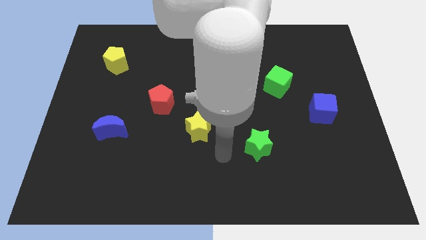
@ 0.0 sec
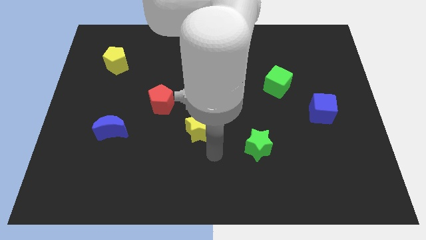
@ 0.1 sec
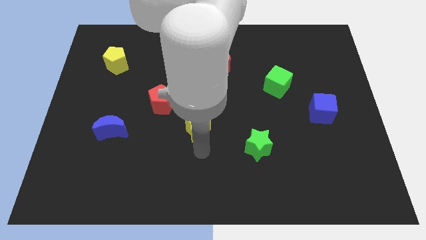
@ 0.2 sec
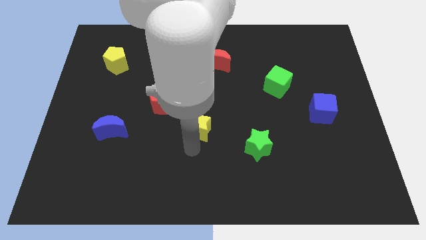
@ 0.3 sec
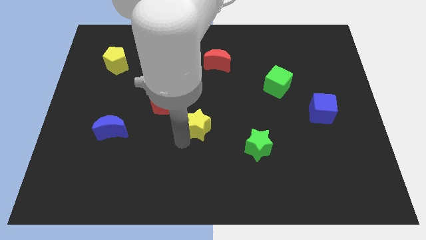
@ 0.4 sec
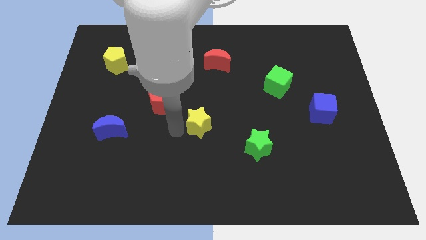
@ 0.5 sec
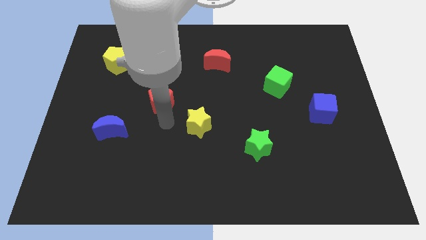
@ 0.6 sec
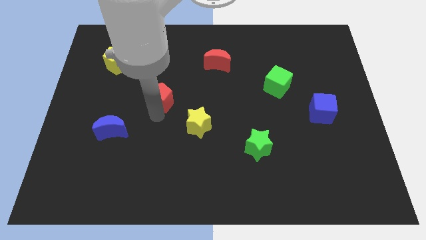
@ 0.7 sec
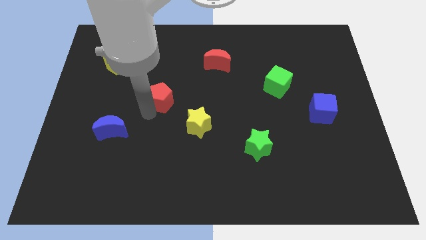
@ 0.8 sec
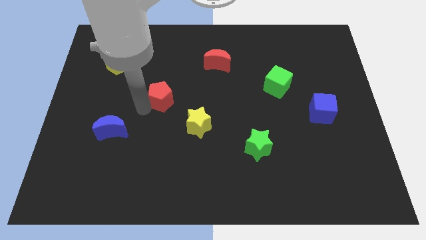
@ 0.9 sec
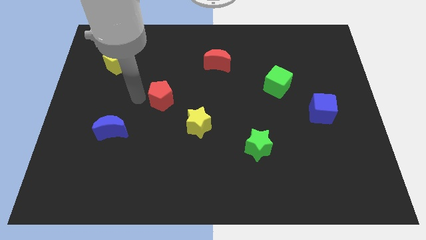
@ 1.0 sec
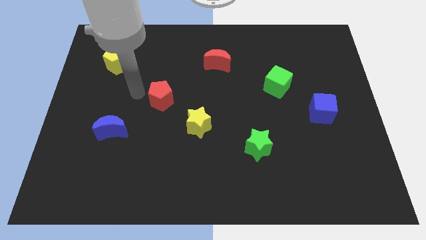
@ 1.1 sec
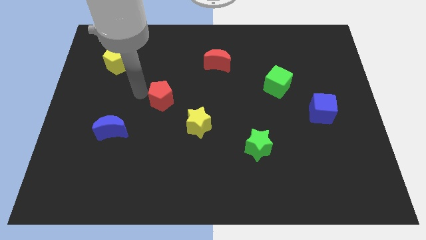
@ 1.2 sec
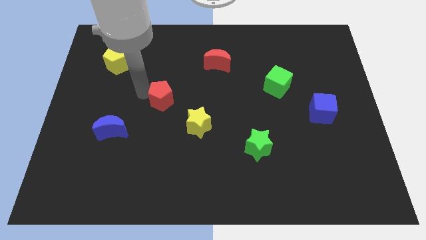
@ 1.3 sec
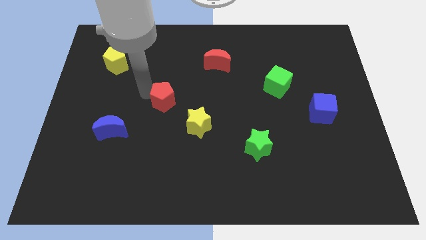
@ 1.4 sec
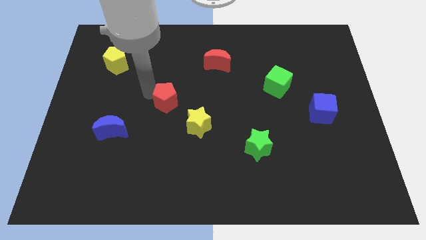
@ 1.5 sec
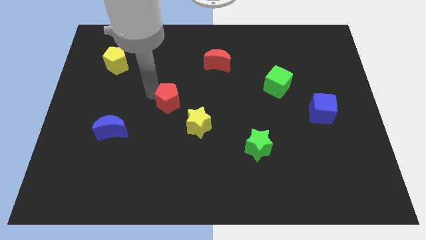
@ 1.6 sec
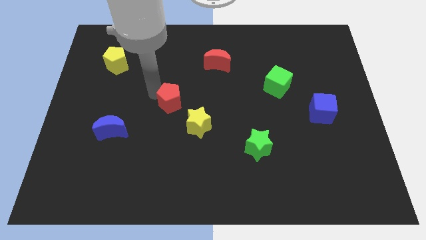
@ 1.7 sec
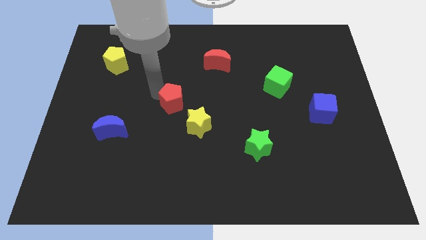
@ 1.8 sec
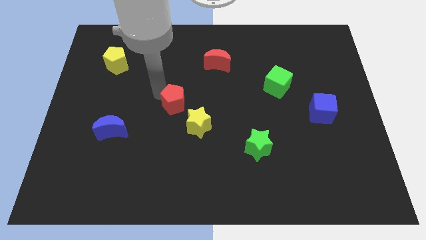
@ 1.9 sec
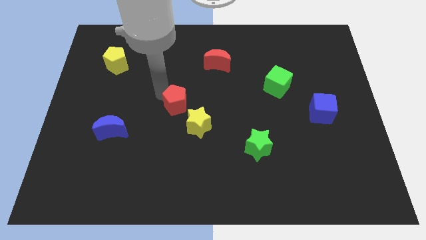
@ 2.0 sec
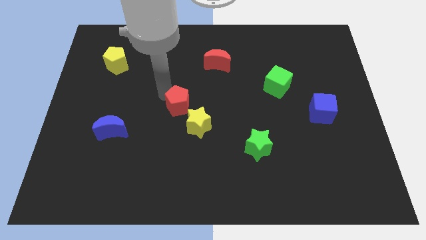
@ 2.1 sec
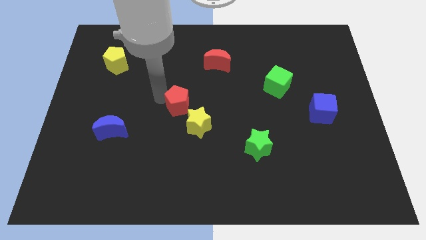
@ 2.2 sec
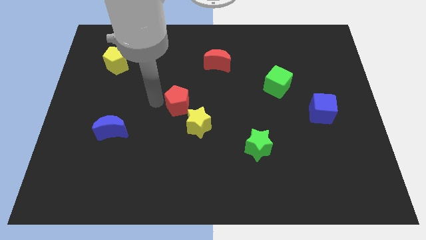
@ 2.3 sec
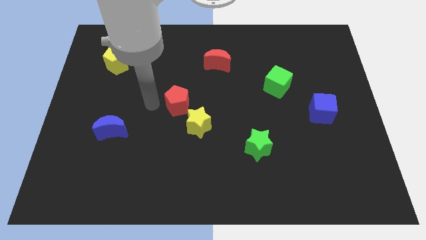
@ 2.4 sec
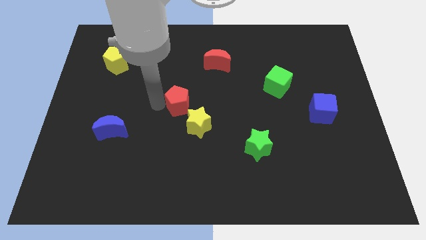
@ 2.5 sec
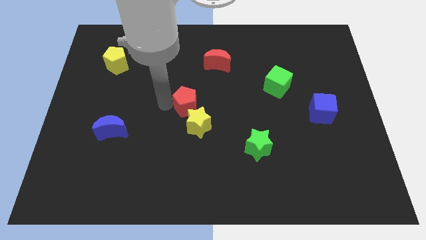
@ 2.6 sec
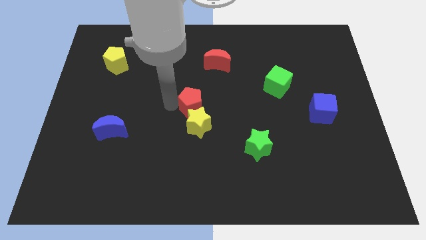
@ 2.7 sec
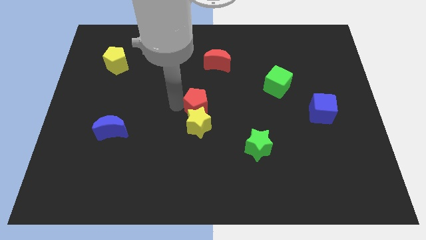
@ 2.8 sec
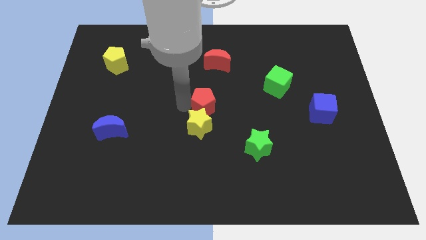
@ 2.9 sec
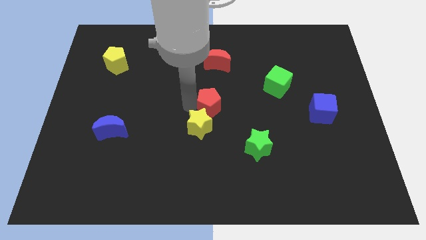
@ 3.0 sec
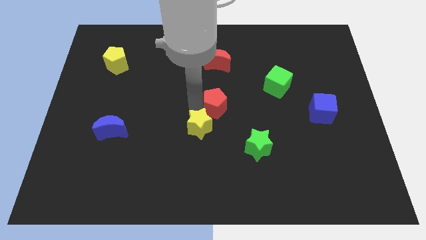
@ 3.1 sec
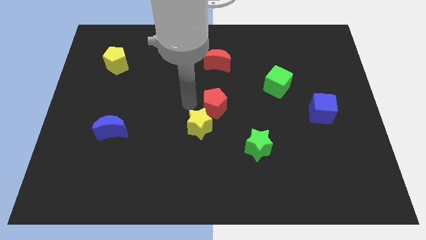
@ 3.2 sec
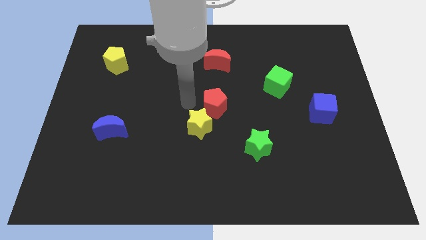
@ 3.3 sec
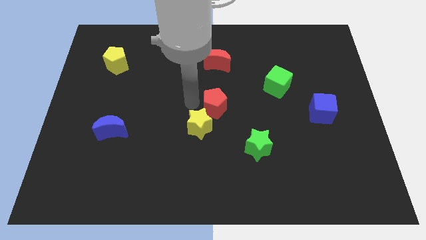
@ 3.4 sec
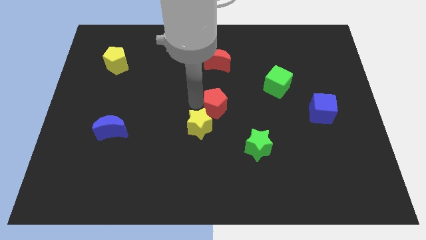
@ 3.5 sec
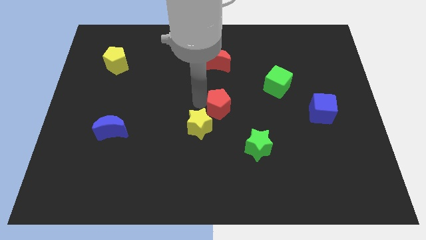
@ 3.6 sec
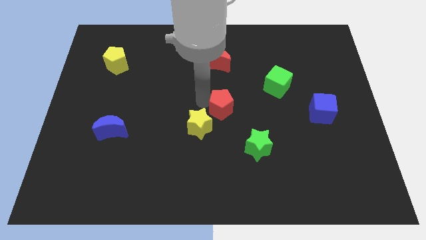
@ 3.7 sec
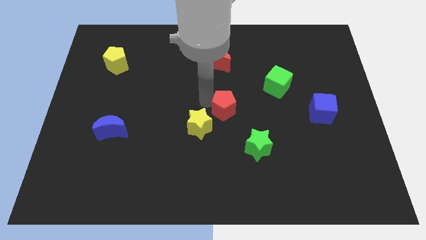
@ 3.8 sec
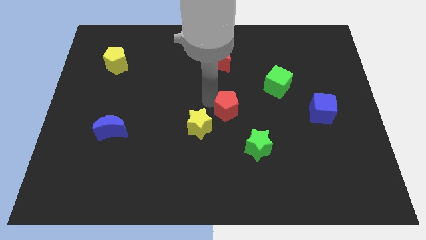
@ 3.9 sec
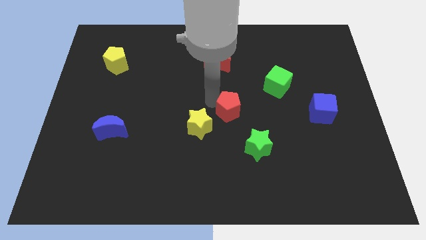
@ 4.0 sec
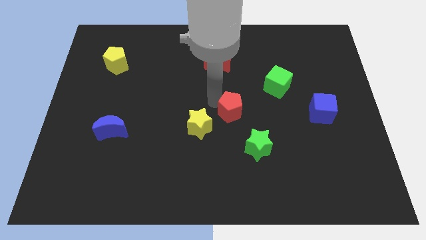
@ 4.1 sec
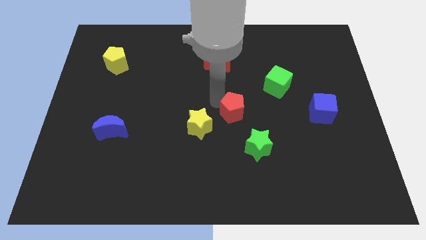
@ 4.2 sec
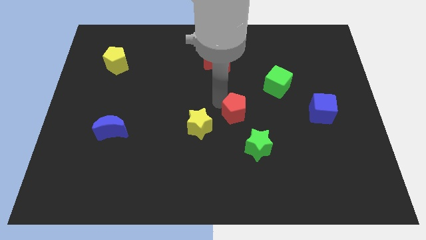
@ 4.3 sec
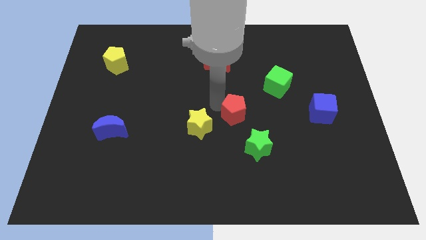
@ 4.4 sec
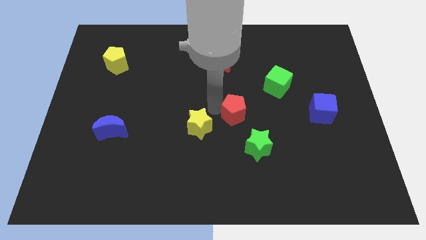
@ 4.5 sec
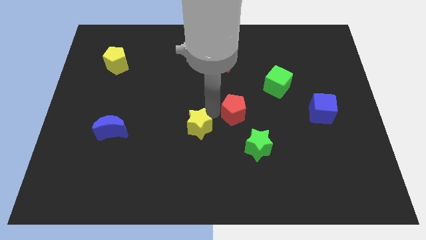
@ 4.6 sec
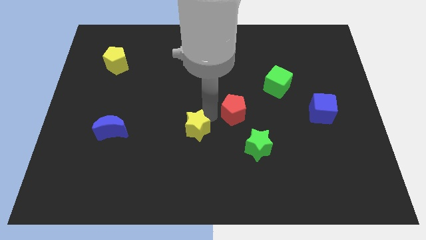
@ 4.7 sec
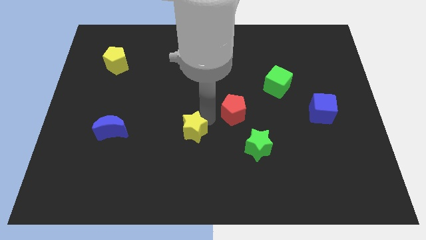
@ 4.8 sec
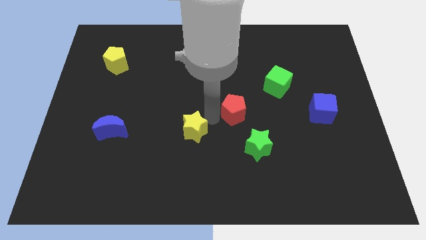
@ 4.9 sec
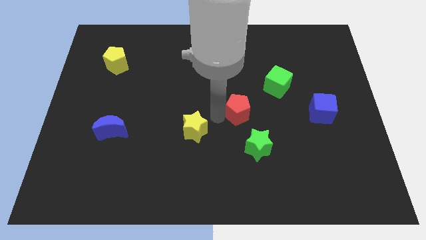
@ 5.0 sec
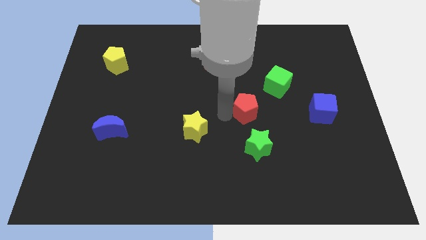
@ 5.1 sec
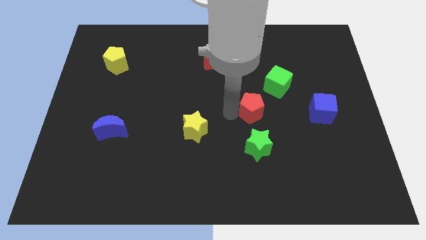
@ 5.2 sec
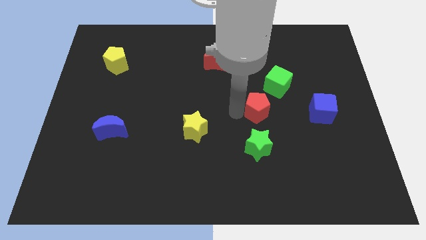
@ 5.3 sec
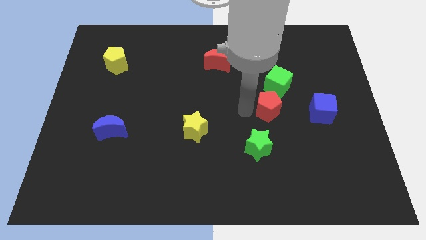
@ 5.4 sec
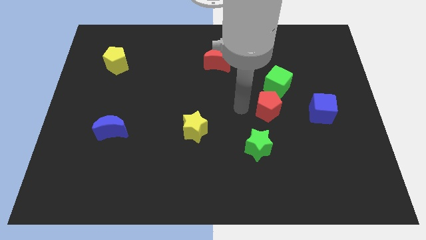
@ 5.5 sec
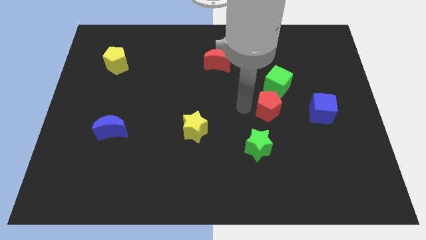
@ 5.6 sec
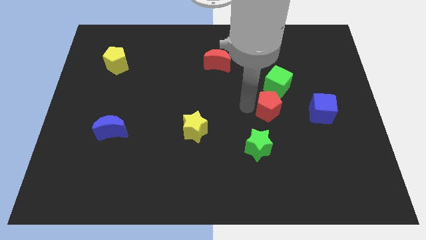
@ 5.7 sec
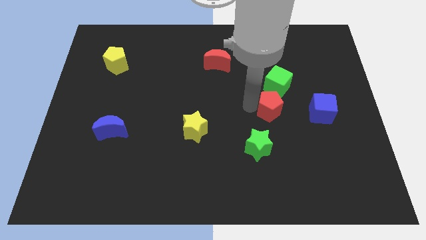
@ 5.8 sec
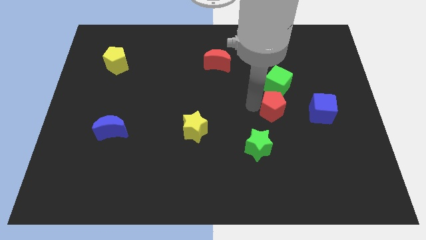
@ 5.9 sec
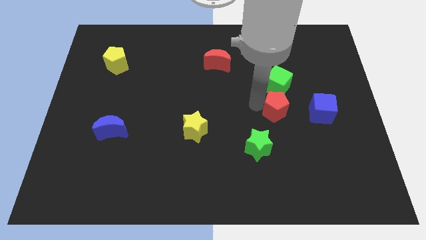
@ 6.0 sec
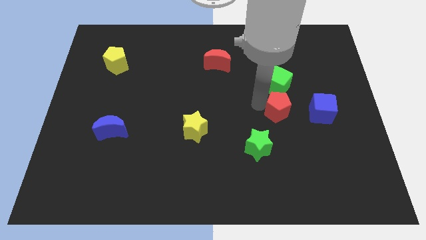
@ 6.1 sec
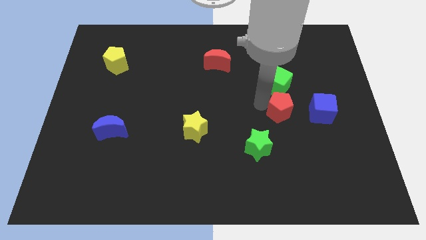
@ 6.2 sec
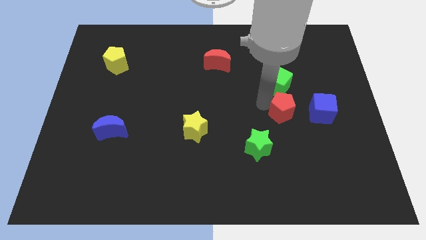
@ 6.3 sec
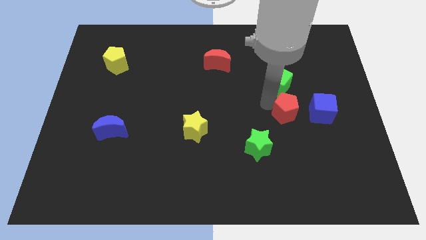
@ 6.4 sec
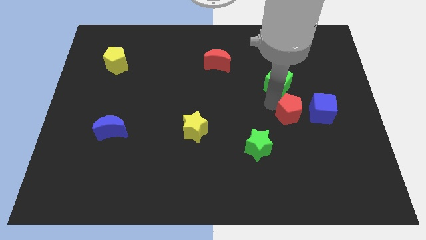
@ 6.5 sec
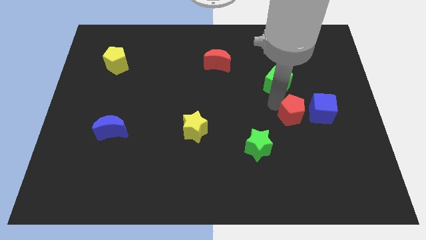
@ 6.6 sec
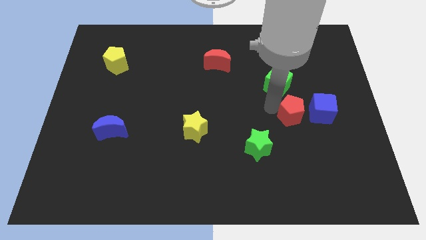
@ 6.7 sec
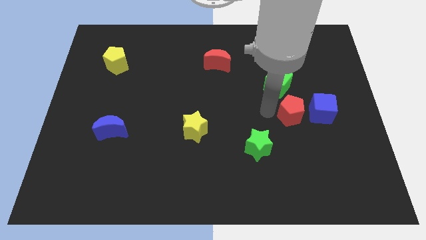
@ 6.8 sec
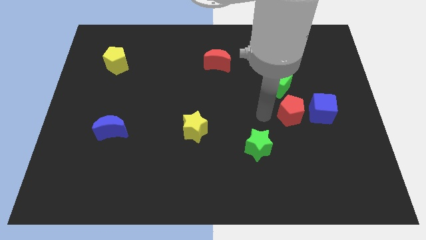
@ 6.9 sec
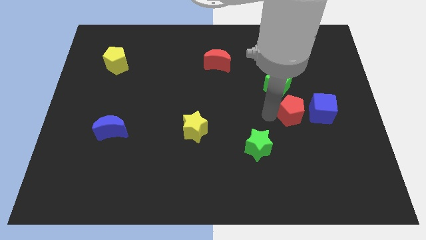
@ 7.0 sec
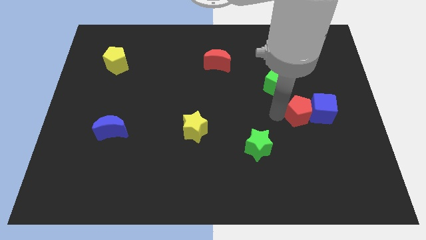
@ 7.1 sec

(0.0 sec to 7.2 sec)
push the red pentagon towards the blue cube
